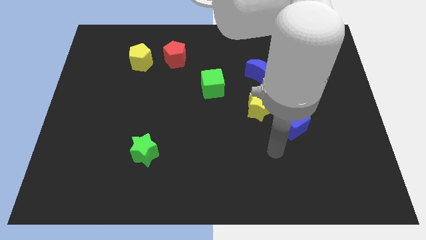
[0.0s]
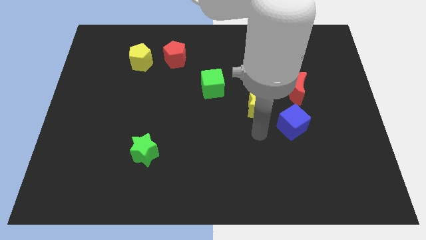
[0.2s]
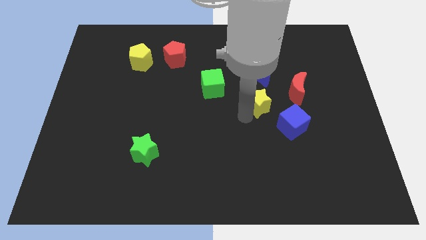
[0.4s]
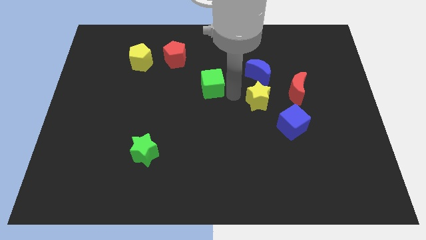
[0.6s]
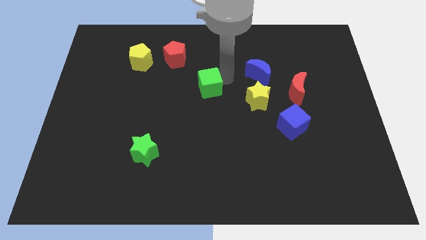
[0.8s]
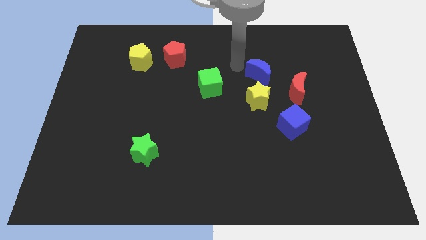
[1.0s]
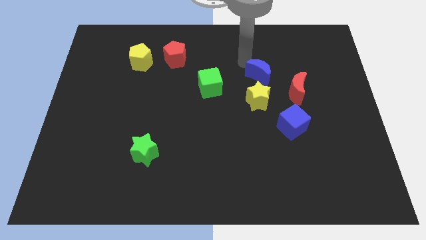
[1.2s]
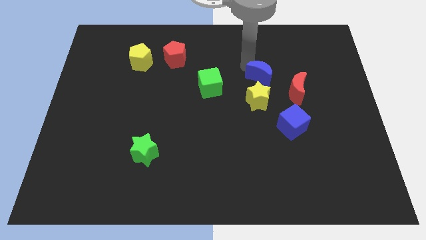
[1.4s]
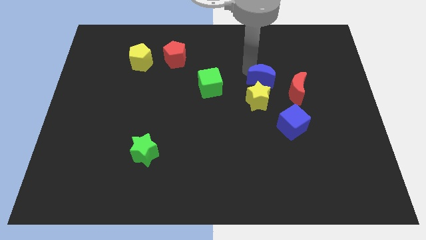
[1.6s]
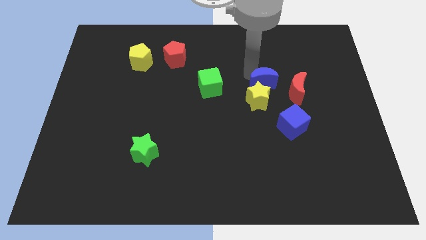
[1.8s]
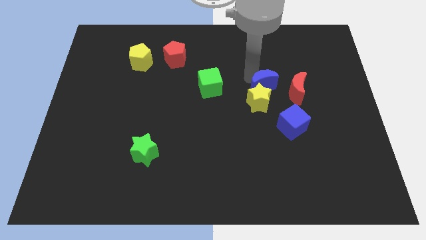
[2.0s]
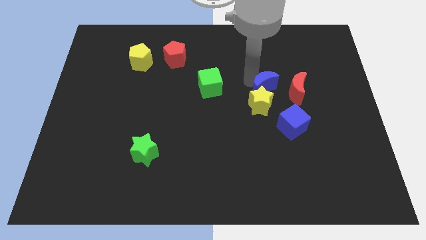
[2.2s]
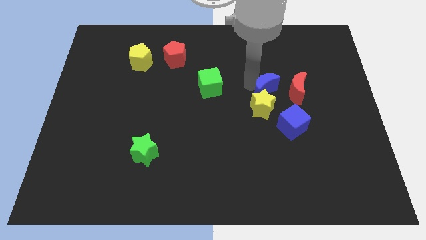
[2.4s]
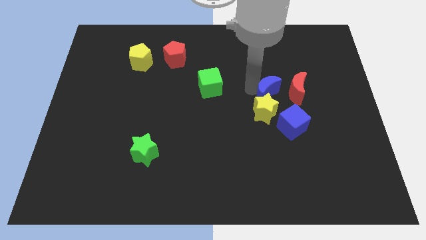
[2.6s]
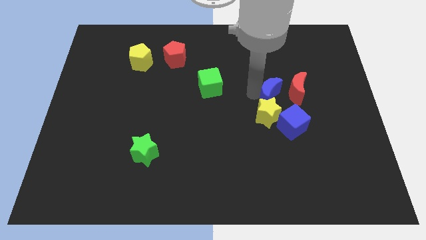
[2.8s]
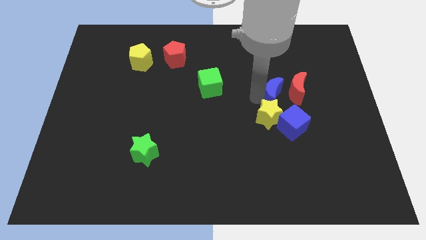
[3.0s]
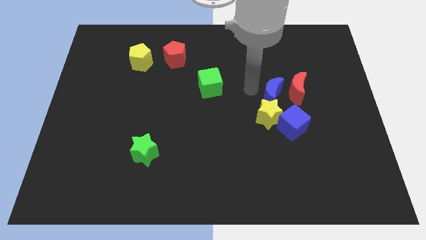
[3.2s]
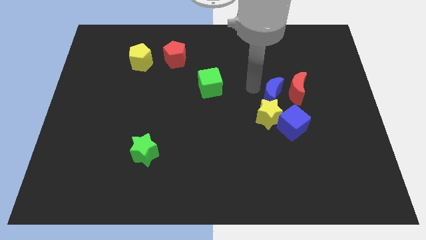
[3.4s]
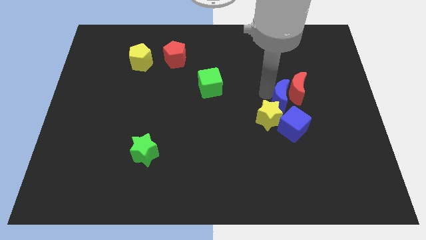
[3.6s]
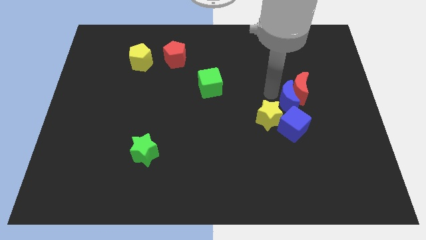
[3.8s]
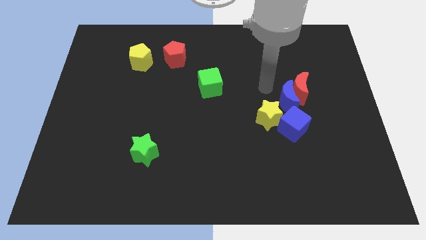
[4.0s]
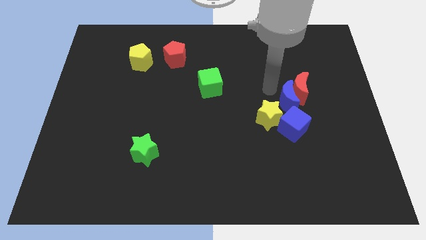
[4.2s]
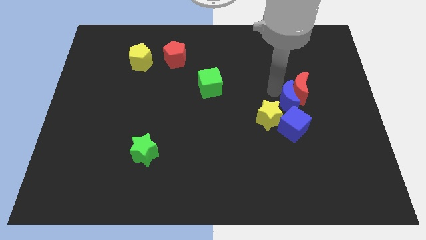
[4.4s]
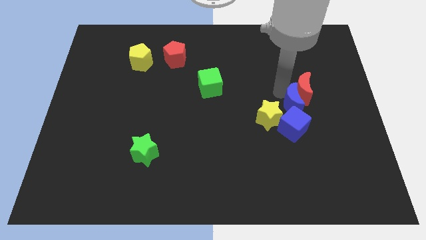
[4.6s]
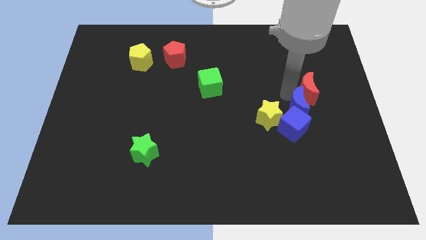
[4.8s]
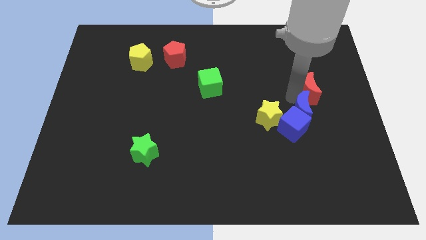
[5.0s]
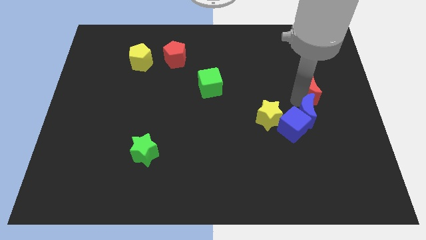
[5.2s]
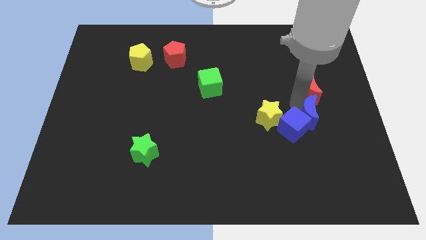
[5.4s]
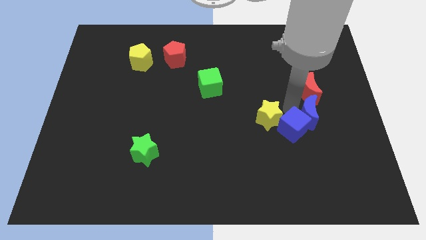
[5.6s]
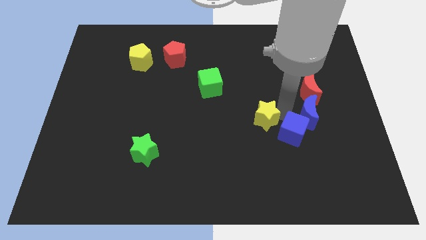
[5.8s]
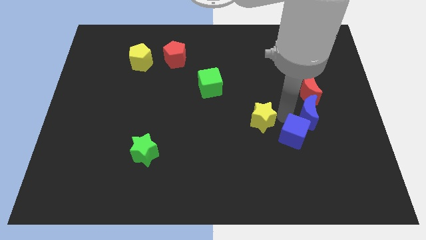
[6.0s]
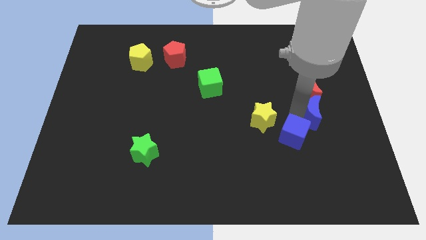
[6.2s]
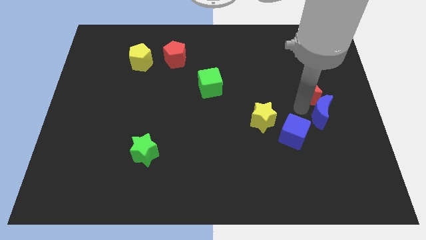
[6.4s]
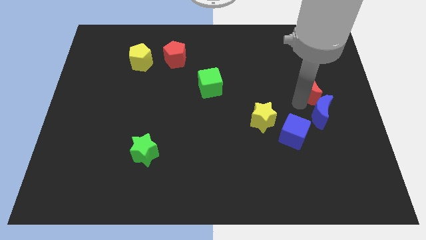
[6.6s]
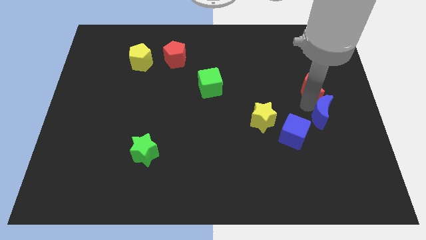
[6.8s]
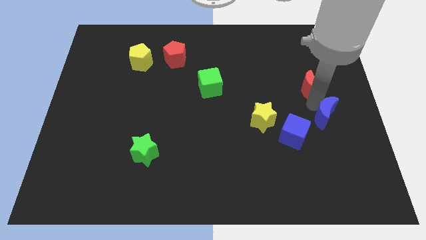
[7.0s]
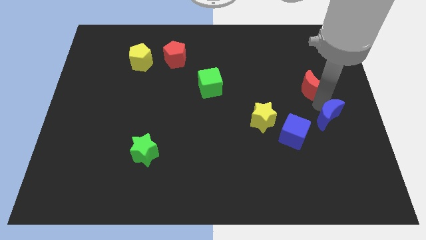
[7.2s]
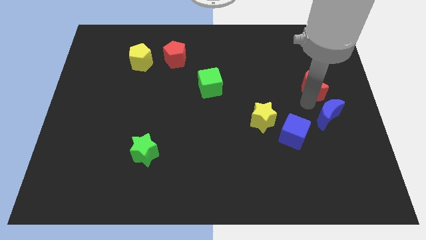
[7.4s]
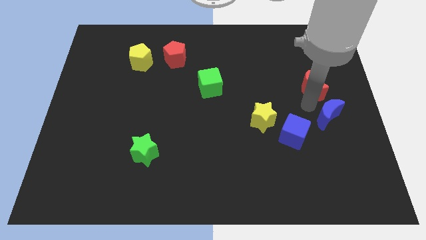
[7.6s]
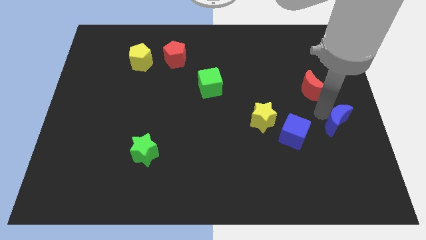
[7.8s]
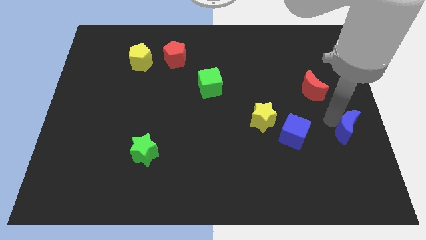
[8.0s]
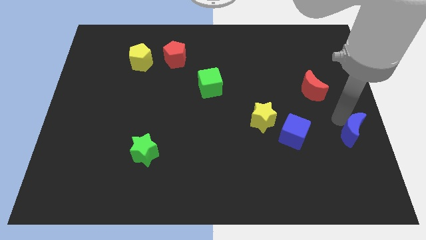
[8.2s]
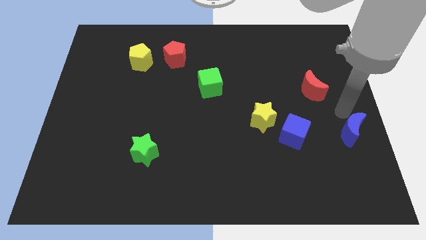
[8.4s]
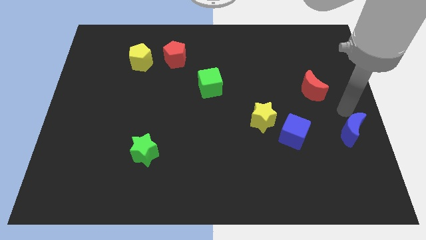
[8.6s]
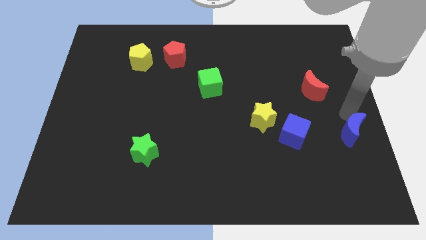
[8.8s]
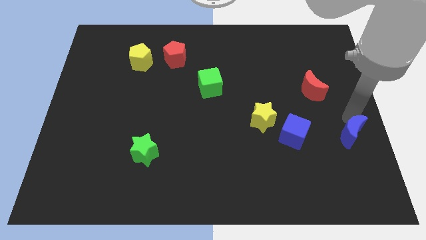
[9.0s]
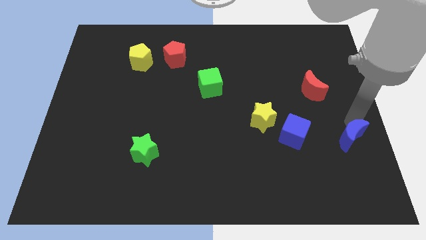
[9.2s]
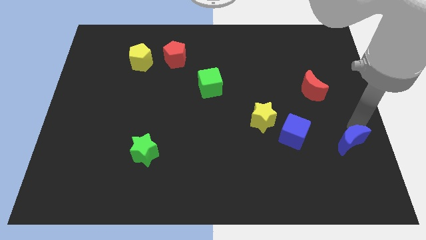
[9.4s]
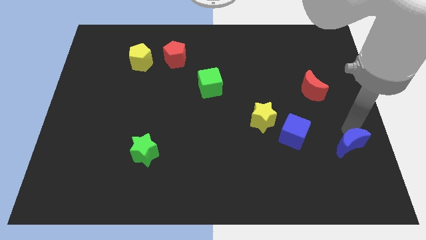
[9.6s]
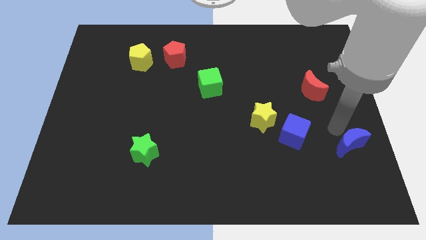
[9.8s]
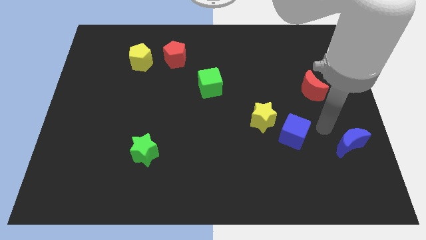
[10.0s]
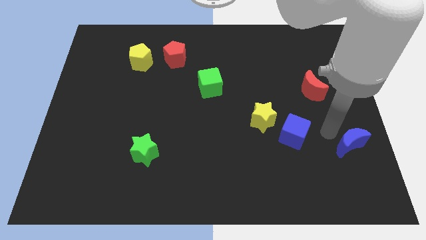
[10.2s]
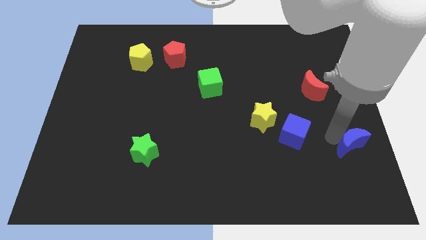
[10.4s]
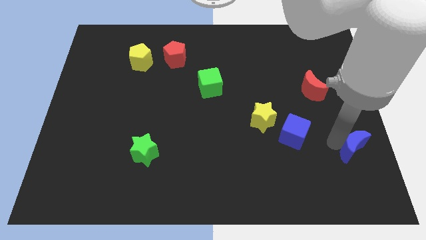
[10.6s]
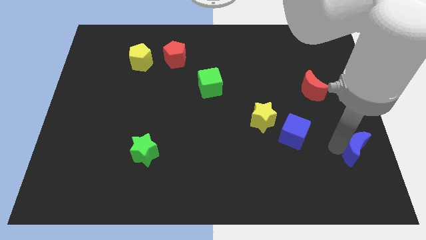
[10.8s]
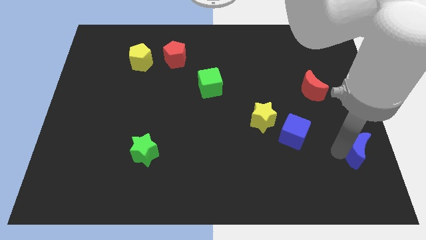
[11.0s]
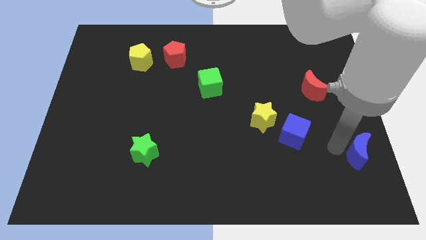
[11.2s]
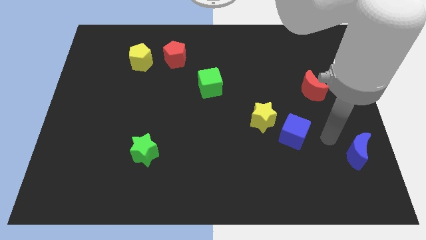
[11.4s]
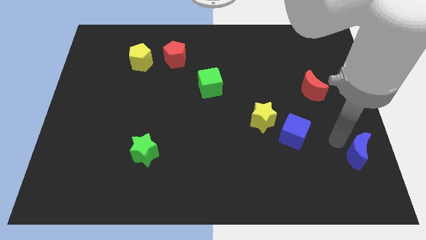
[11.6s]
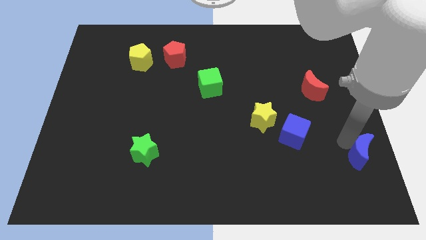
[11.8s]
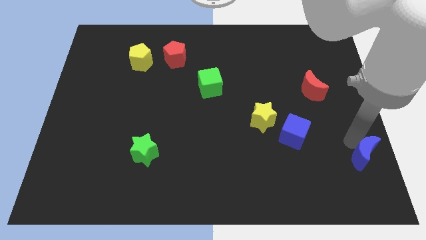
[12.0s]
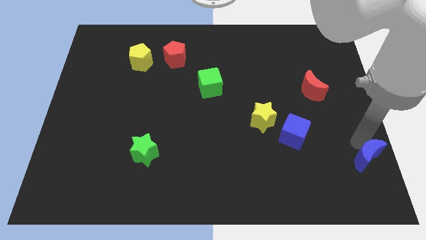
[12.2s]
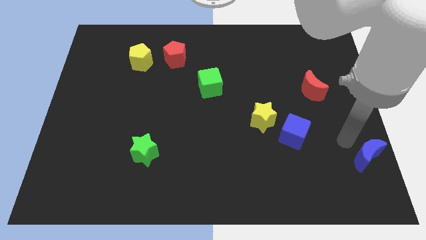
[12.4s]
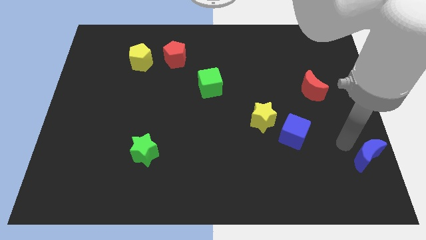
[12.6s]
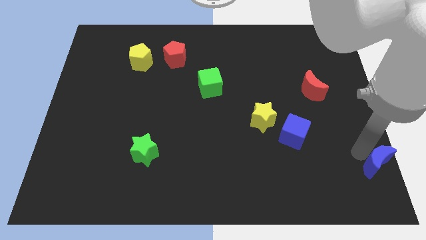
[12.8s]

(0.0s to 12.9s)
move the blue moon to the bottom right

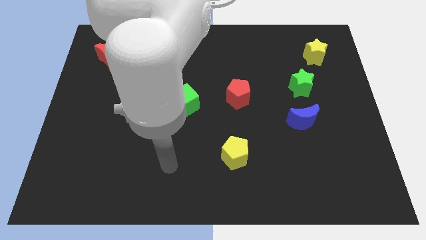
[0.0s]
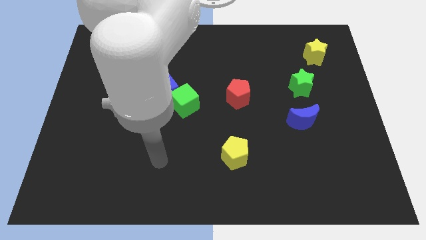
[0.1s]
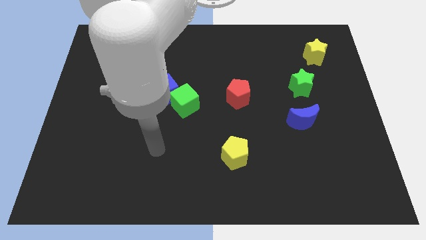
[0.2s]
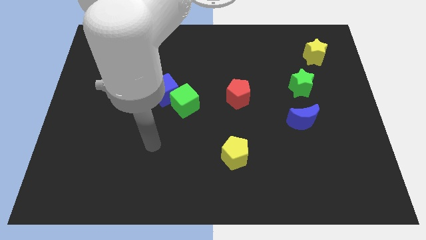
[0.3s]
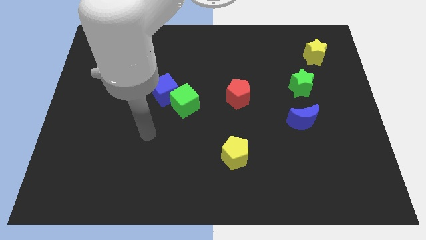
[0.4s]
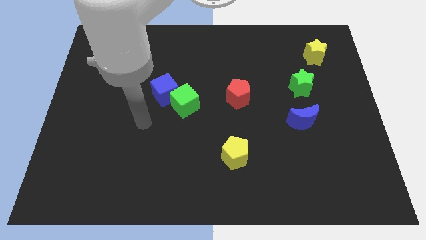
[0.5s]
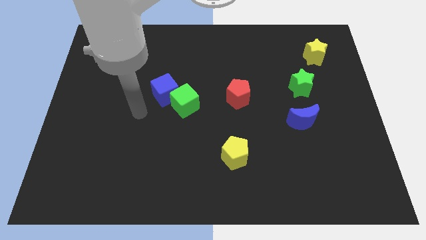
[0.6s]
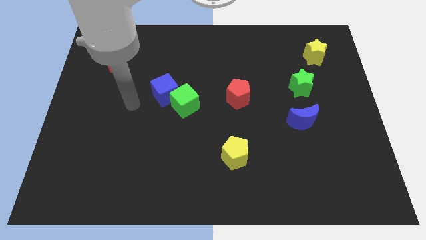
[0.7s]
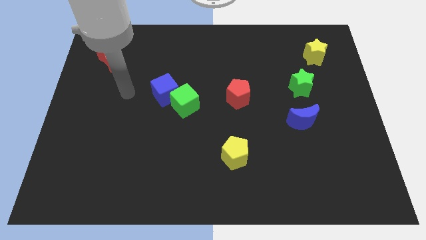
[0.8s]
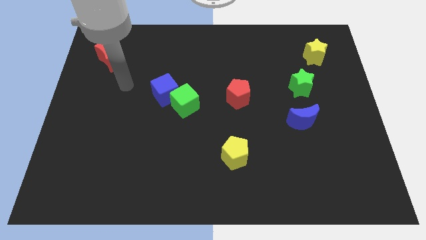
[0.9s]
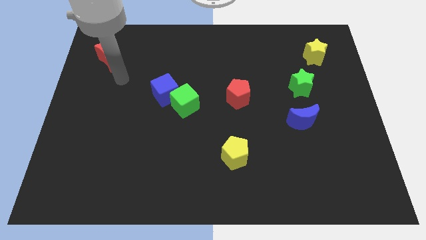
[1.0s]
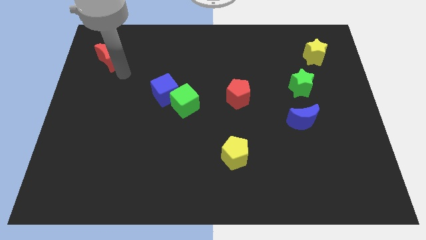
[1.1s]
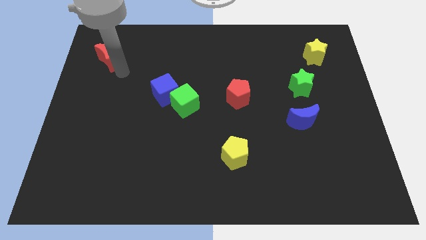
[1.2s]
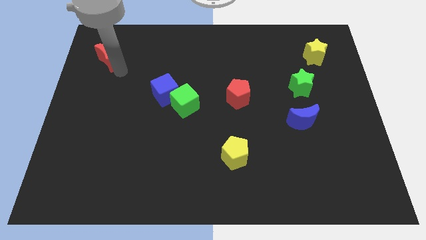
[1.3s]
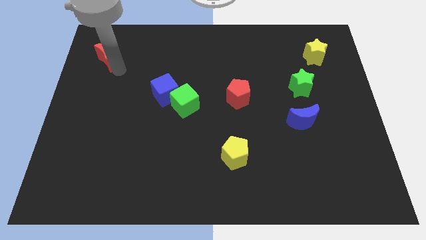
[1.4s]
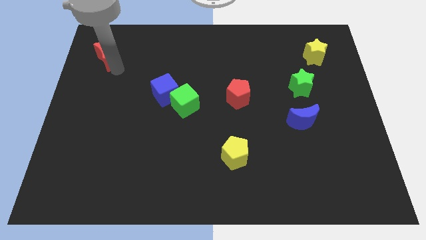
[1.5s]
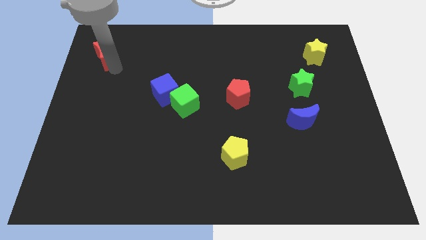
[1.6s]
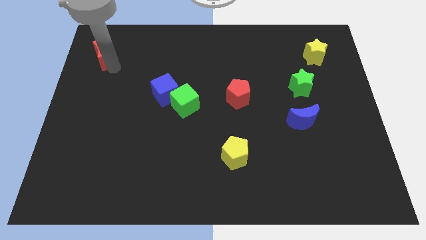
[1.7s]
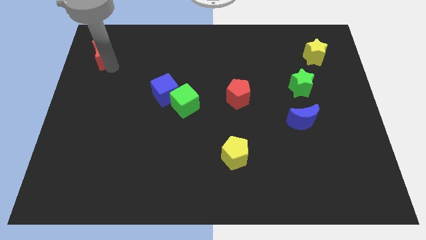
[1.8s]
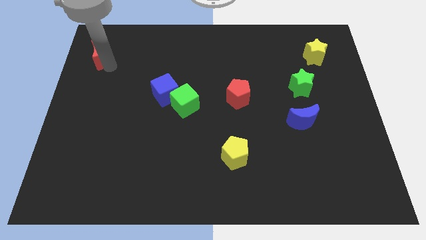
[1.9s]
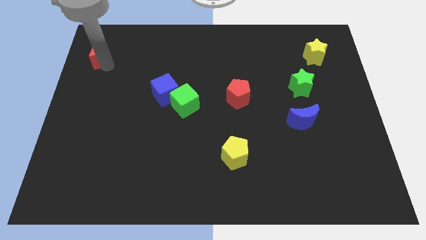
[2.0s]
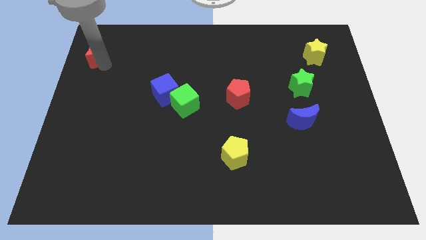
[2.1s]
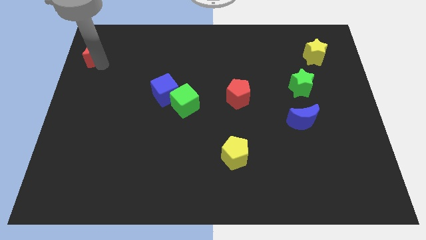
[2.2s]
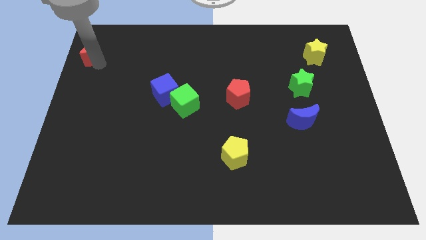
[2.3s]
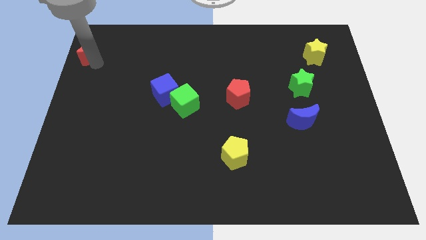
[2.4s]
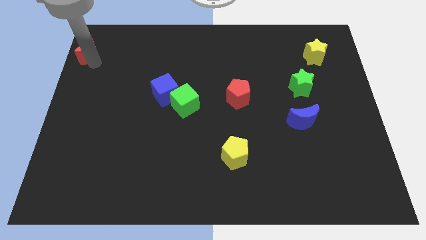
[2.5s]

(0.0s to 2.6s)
push the red moon to the top left of the board
